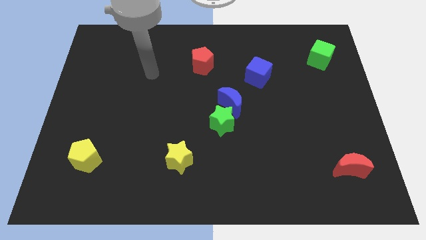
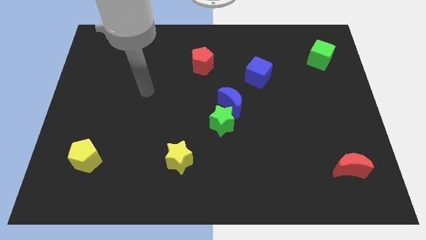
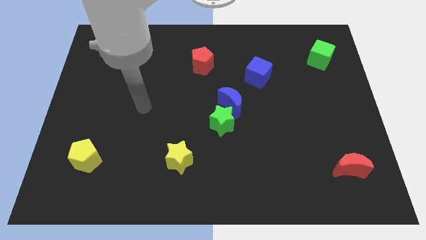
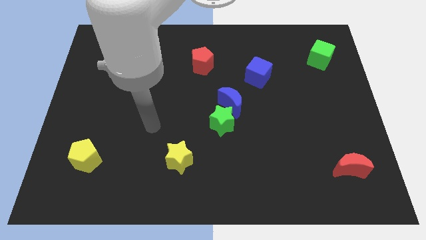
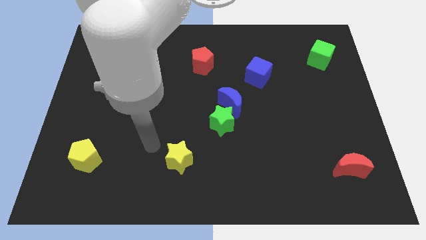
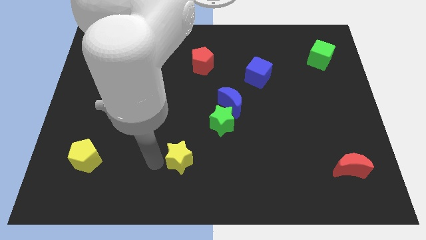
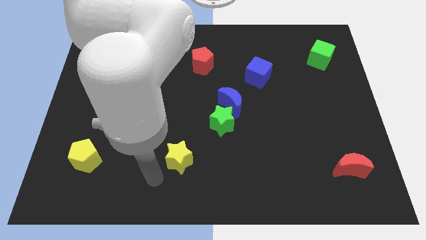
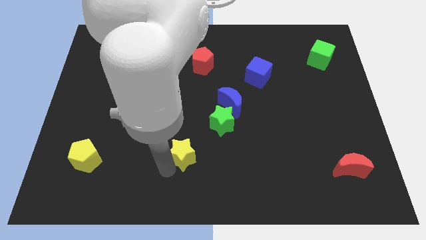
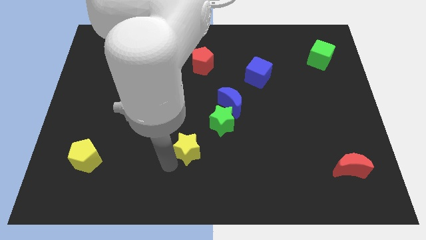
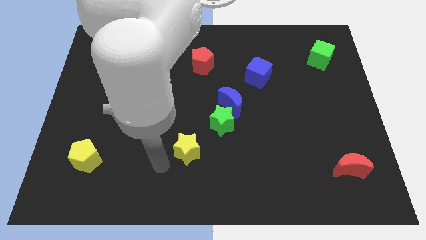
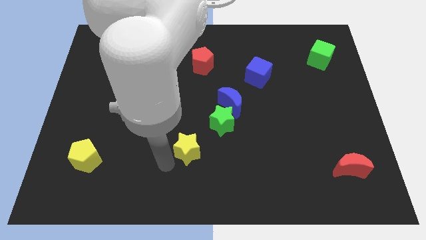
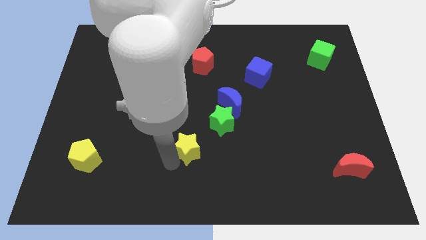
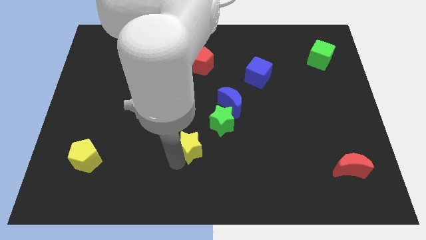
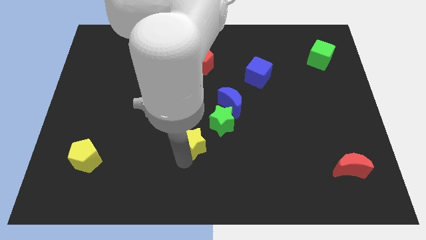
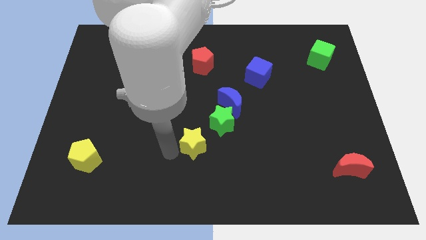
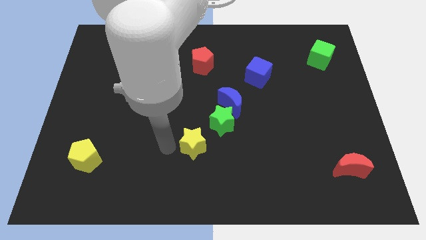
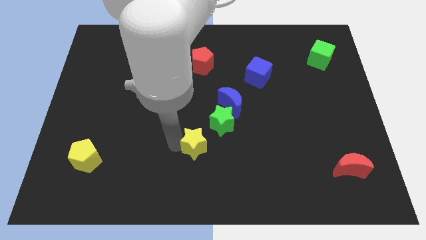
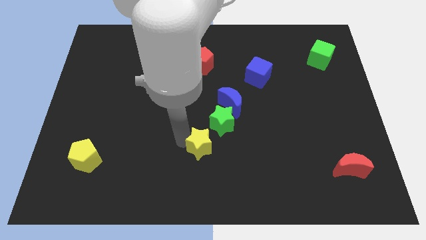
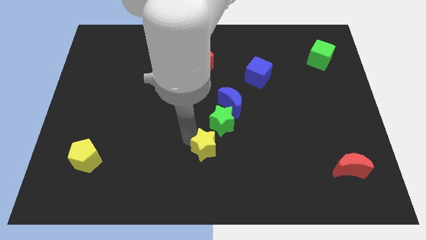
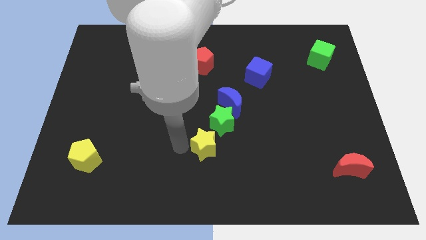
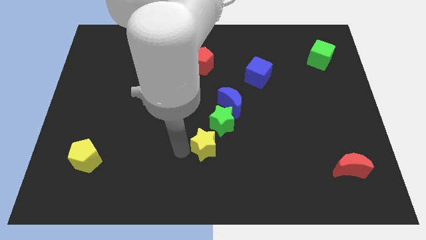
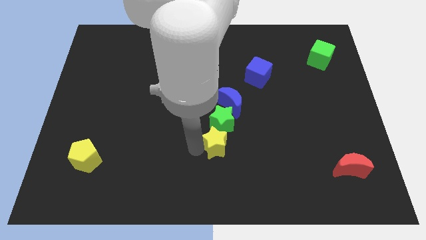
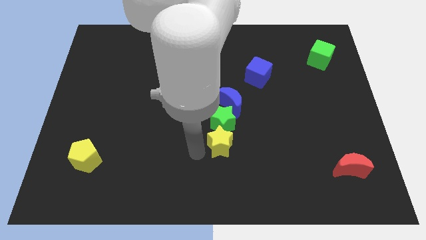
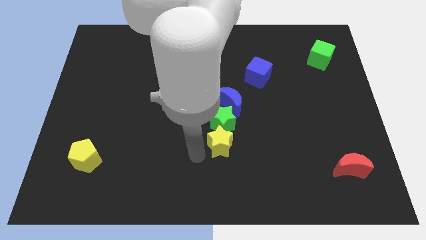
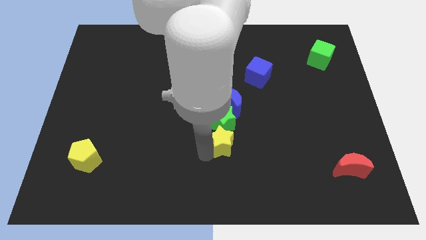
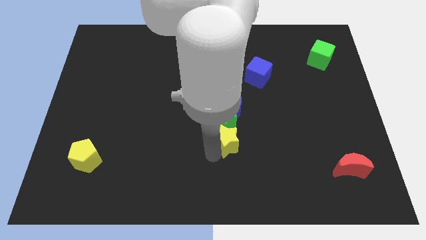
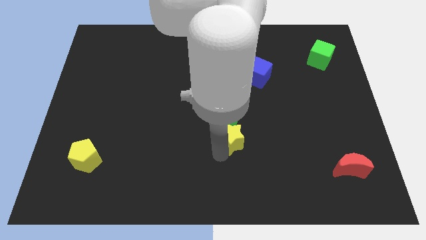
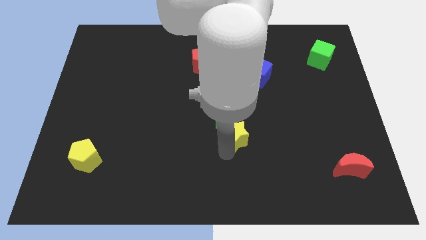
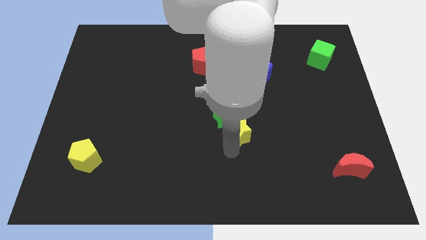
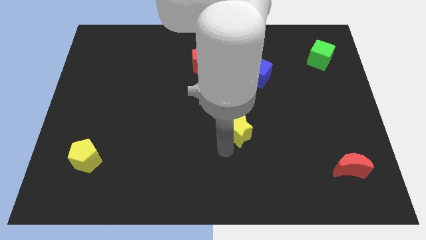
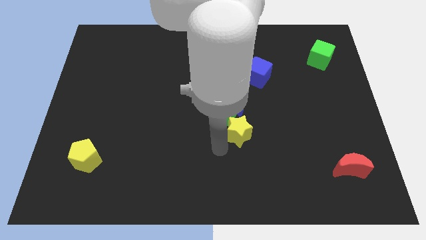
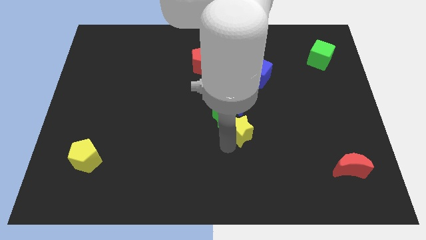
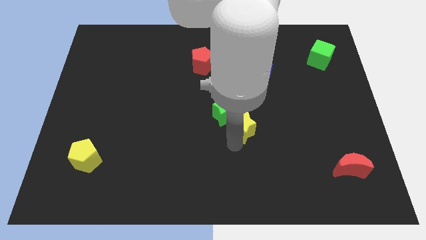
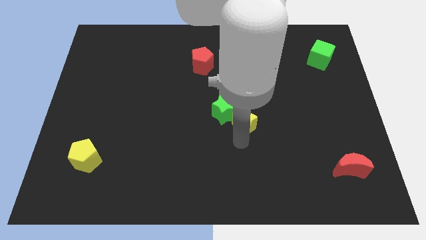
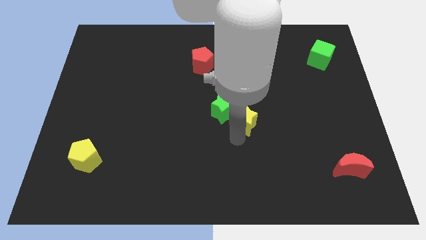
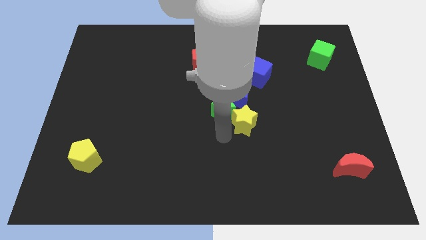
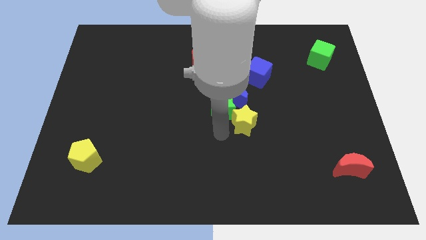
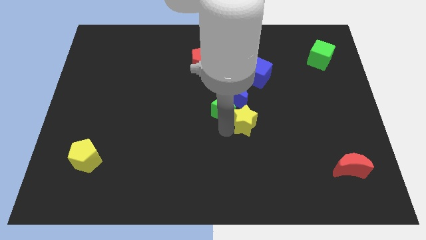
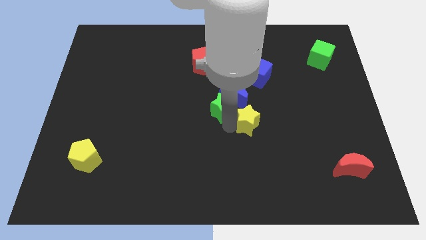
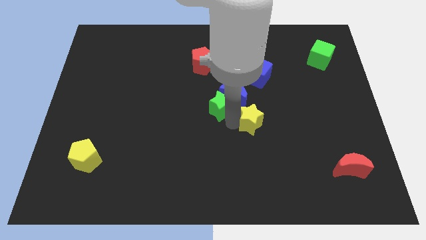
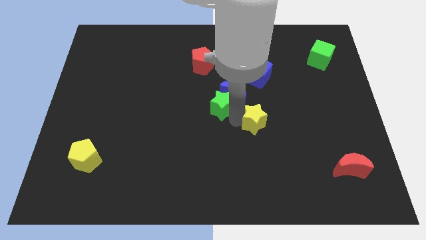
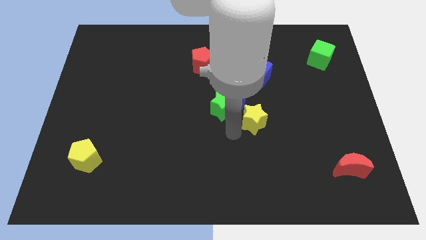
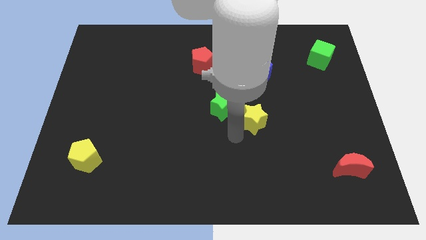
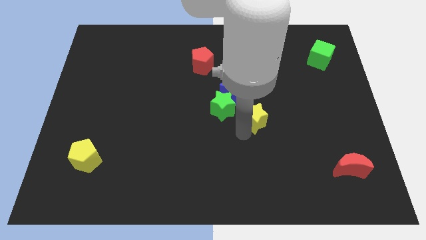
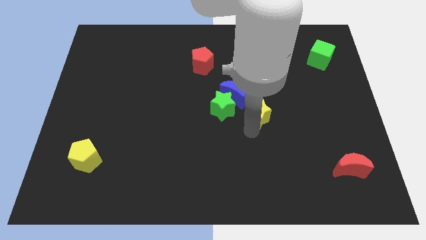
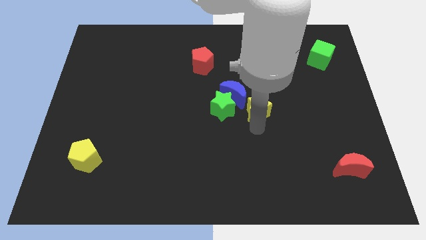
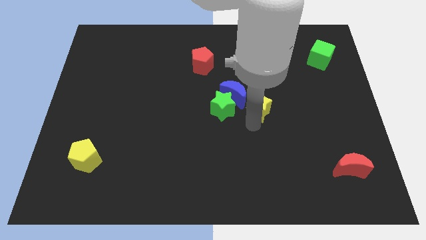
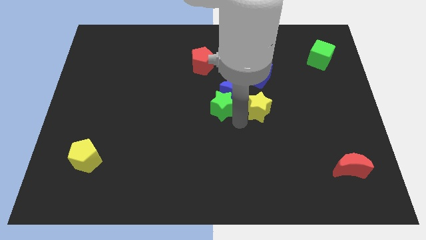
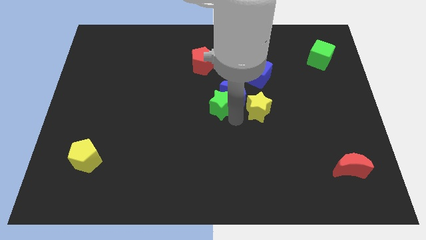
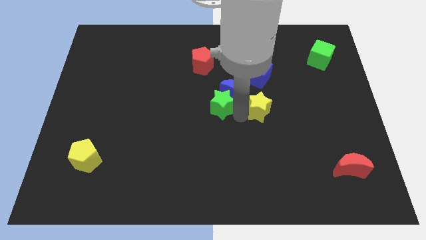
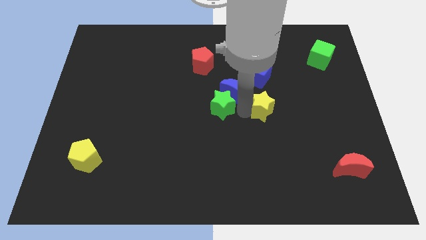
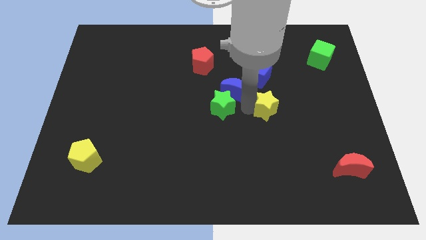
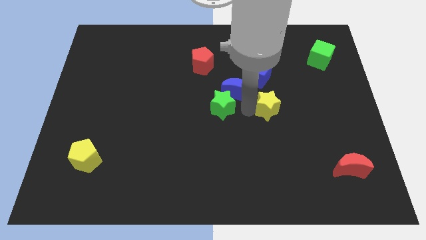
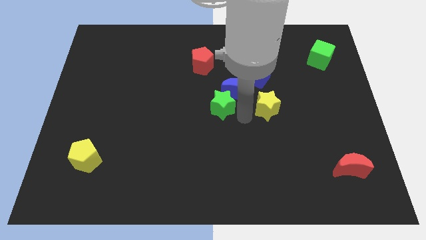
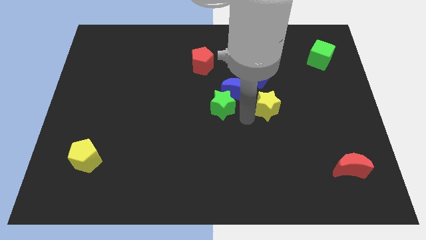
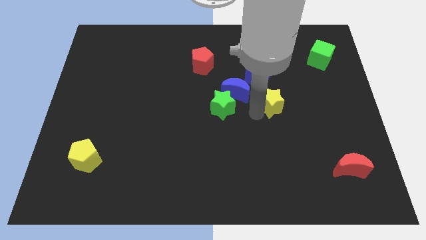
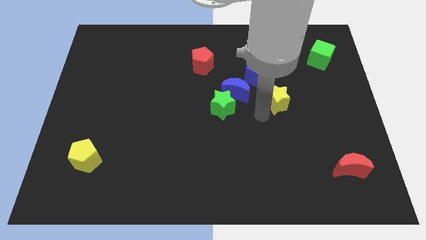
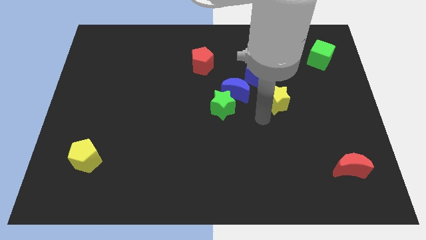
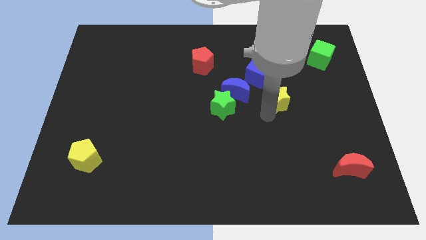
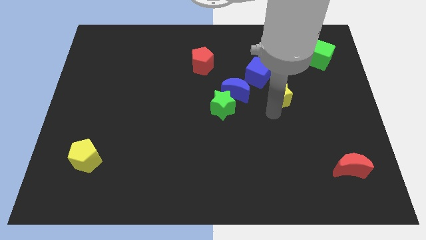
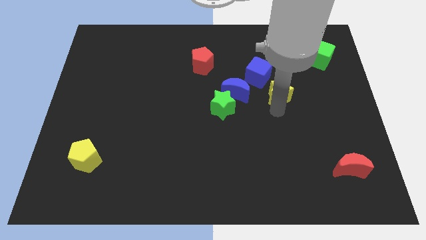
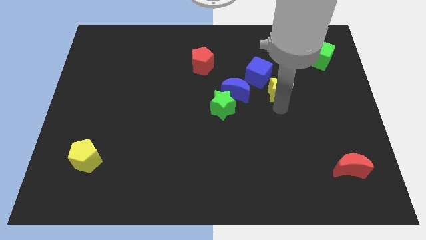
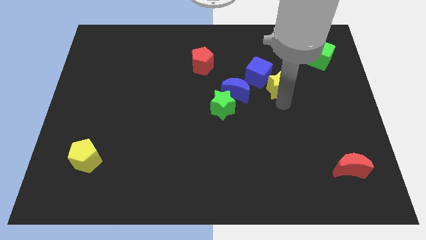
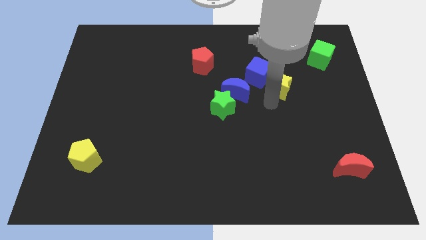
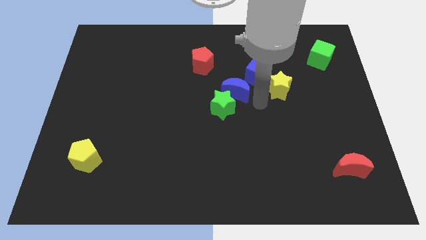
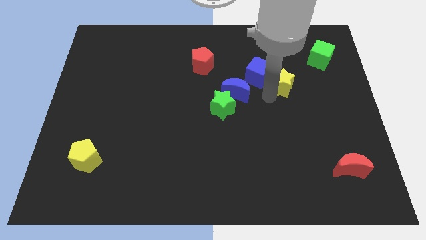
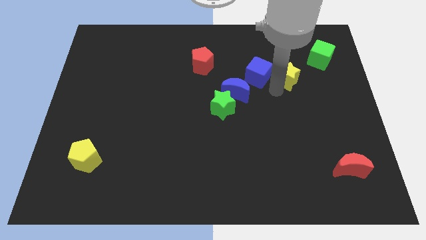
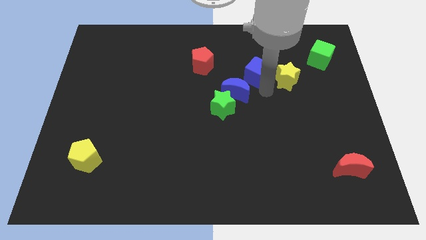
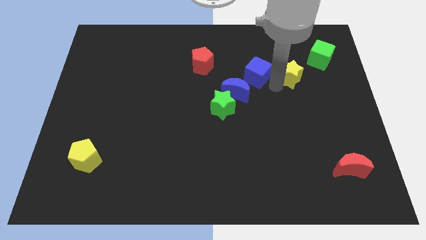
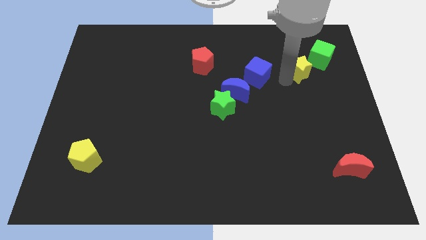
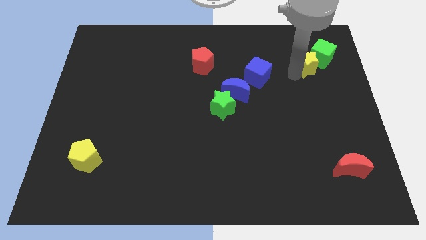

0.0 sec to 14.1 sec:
push the yellow star close to the green cube
